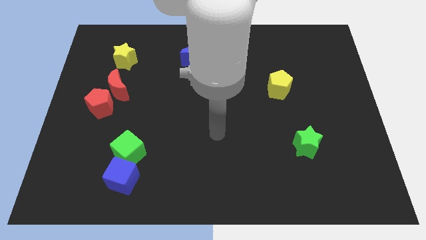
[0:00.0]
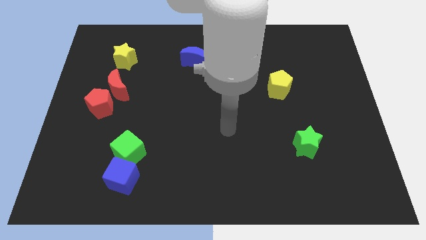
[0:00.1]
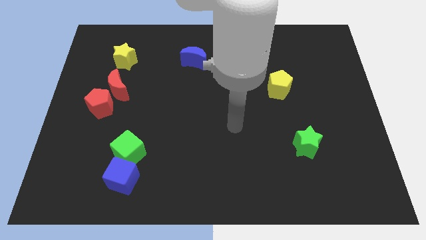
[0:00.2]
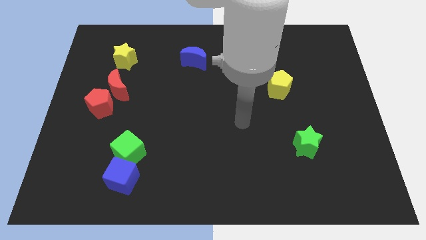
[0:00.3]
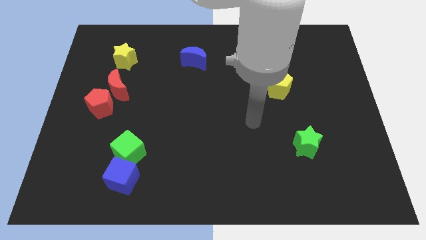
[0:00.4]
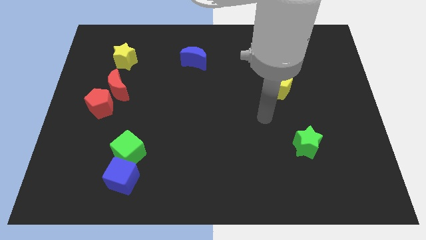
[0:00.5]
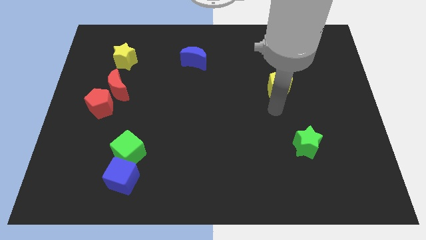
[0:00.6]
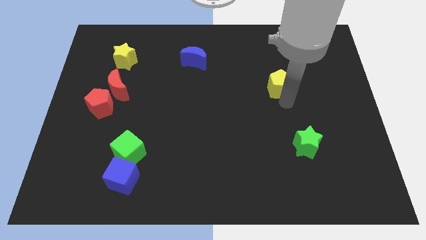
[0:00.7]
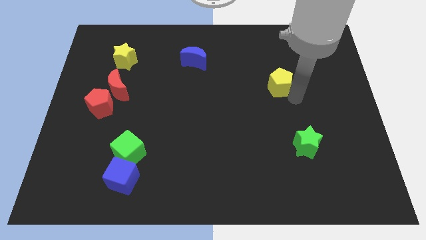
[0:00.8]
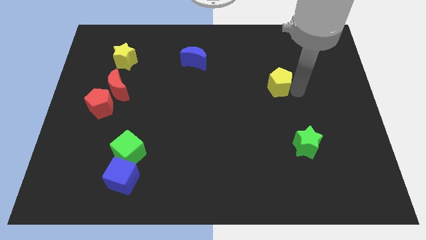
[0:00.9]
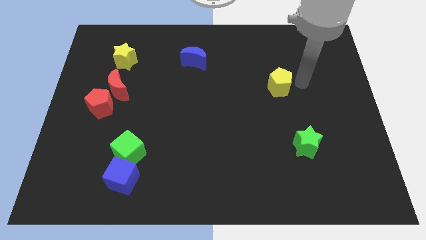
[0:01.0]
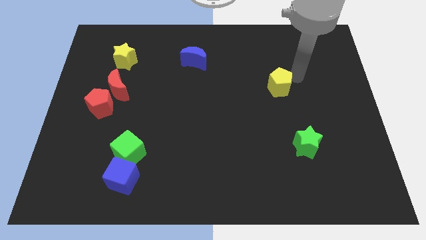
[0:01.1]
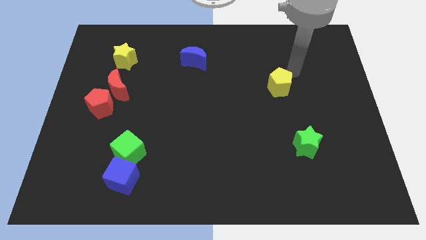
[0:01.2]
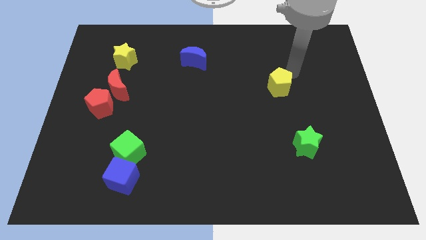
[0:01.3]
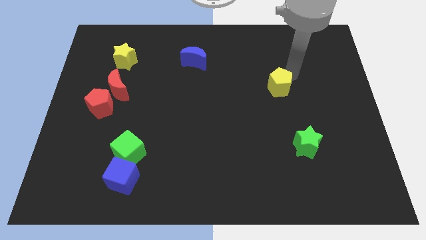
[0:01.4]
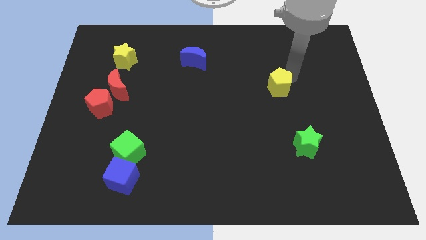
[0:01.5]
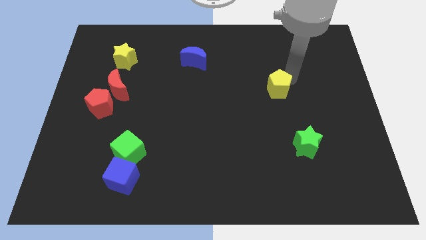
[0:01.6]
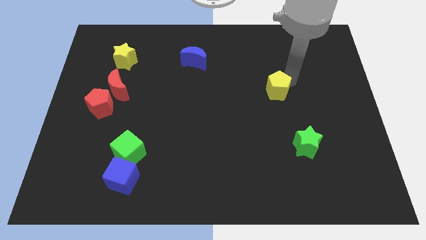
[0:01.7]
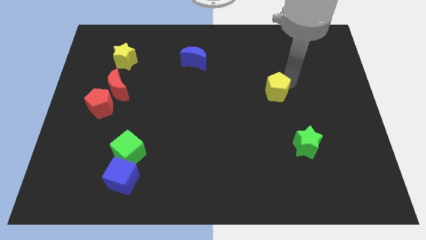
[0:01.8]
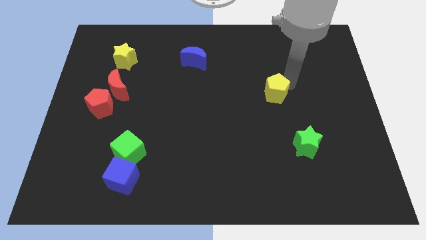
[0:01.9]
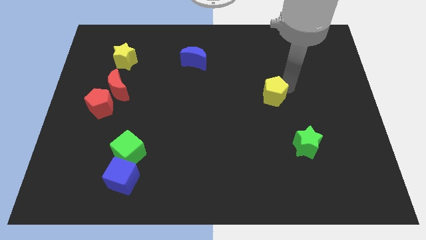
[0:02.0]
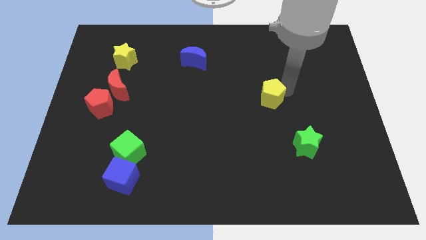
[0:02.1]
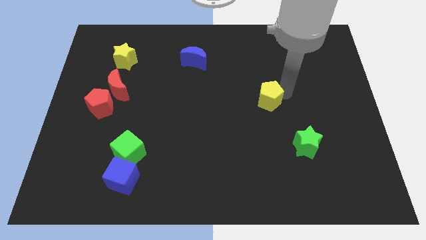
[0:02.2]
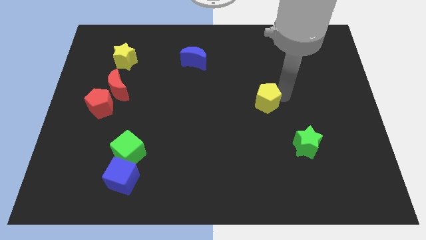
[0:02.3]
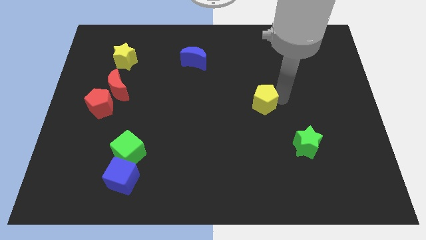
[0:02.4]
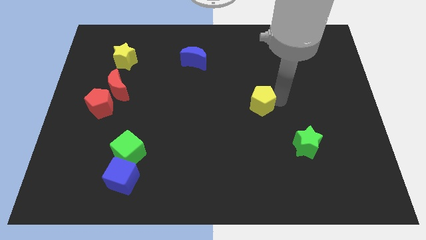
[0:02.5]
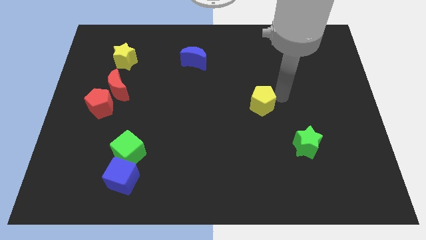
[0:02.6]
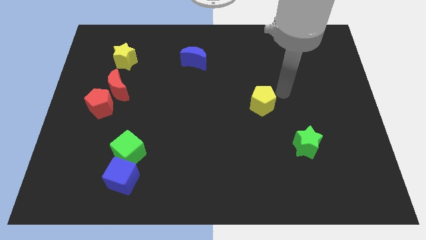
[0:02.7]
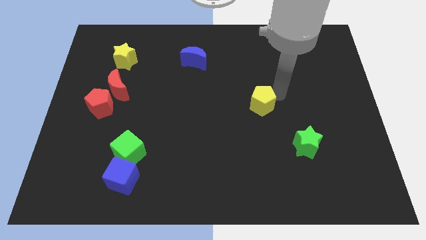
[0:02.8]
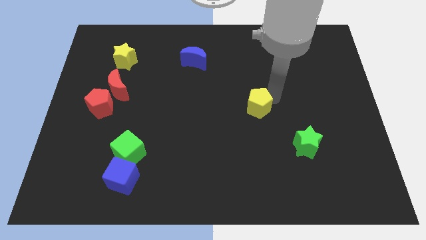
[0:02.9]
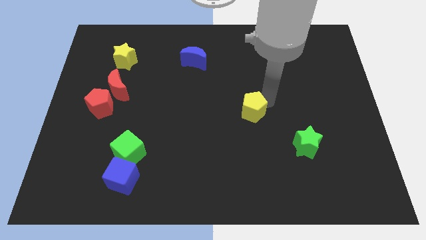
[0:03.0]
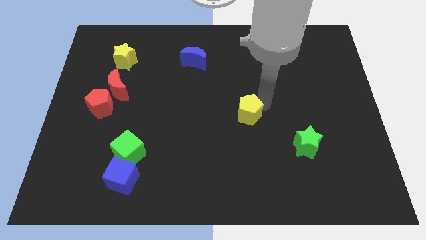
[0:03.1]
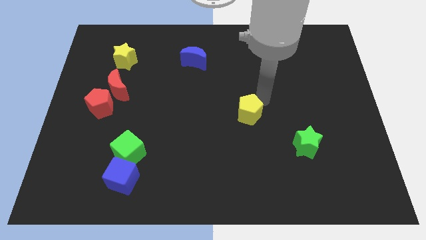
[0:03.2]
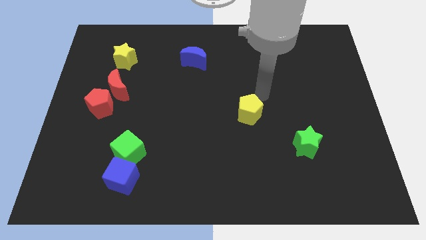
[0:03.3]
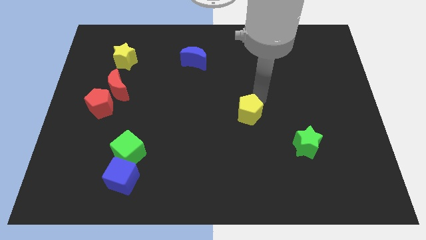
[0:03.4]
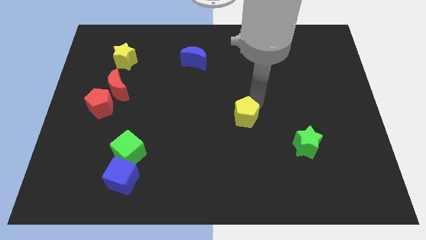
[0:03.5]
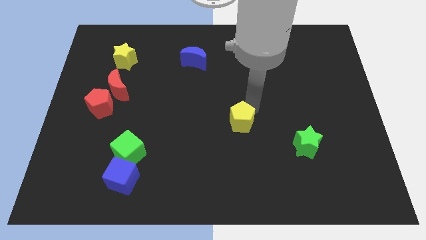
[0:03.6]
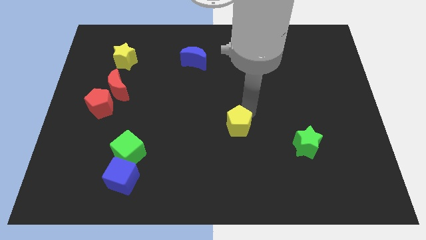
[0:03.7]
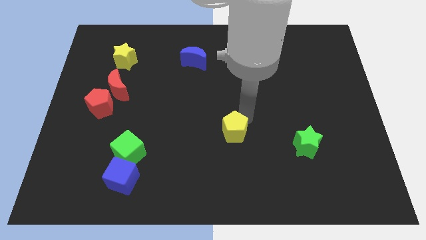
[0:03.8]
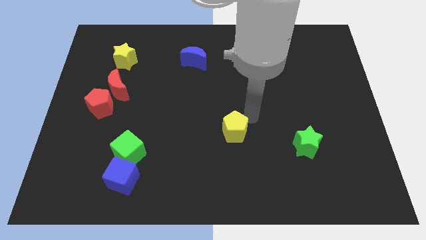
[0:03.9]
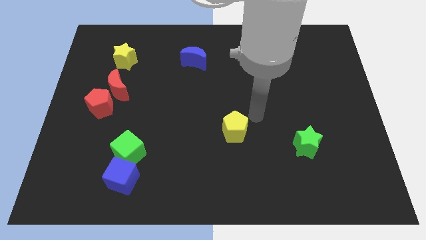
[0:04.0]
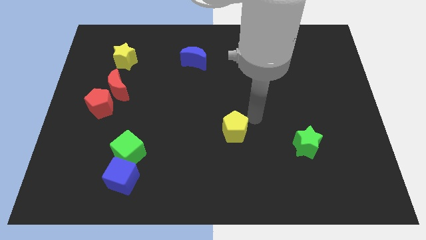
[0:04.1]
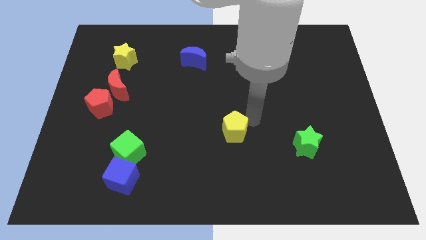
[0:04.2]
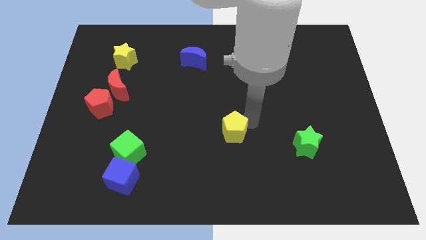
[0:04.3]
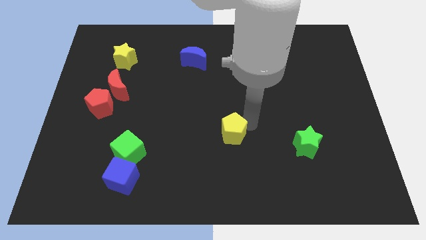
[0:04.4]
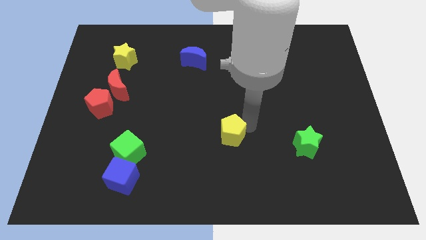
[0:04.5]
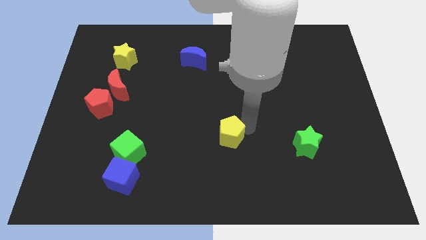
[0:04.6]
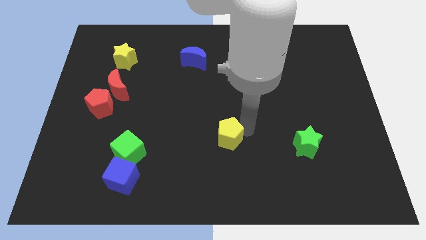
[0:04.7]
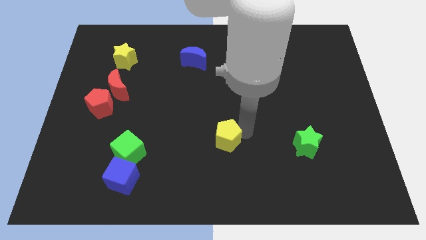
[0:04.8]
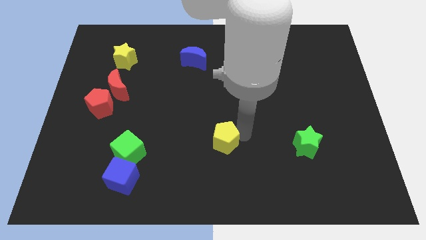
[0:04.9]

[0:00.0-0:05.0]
slide the yellow pentagon downwards and to the left

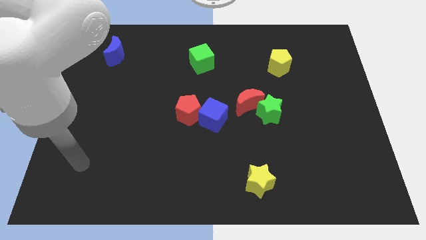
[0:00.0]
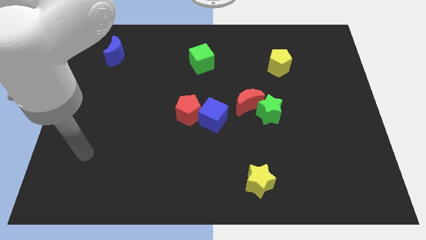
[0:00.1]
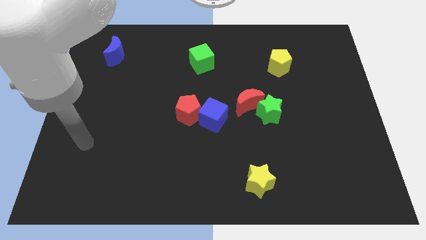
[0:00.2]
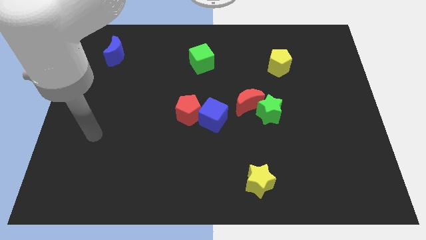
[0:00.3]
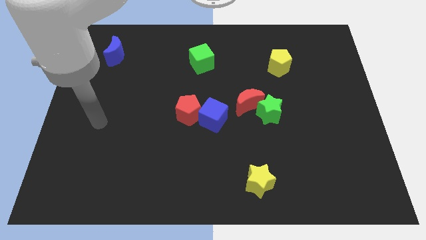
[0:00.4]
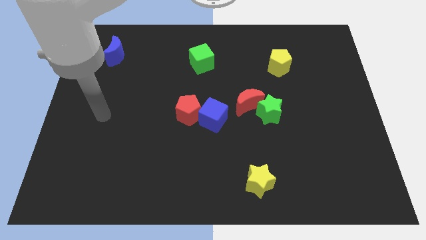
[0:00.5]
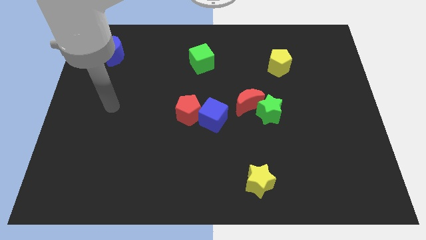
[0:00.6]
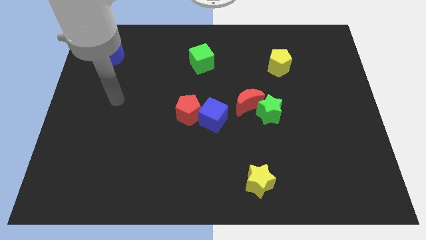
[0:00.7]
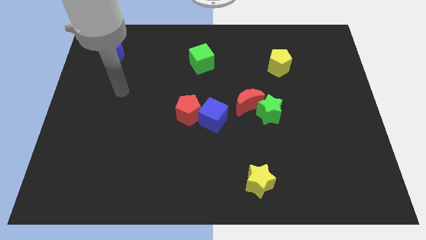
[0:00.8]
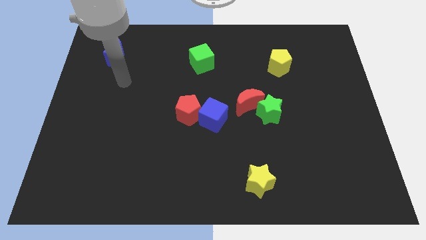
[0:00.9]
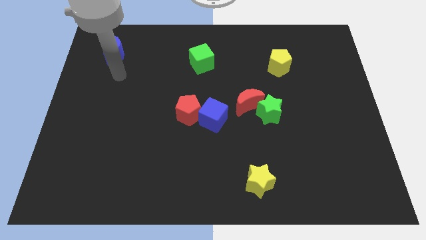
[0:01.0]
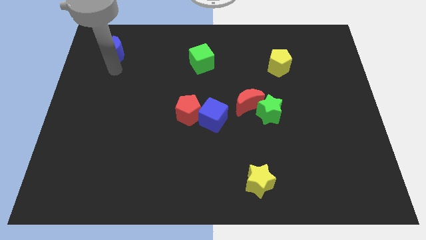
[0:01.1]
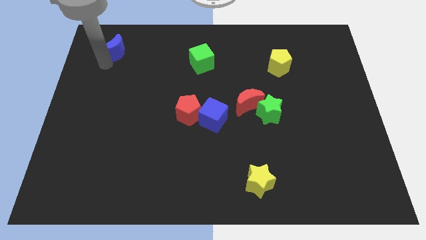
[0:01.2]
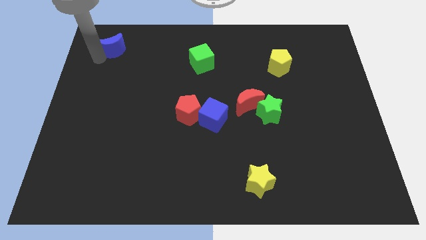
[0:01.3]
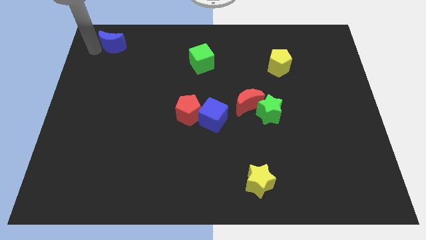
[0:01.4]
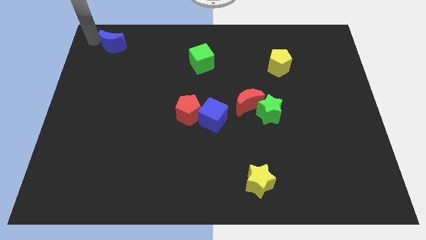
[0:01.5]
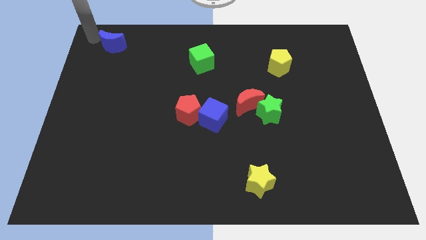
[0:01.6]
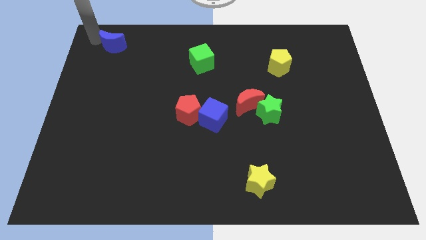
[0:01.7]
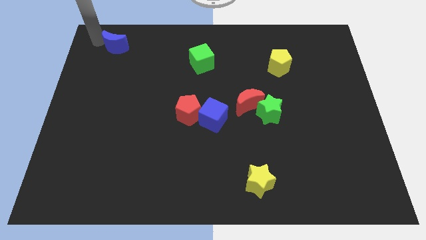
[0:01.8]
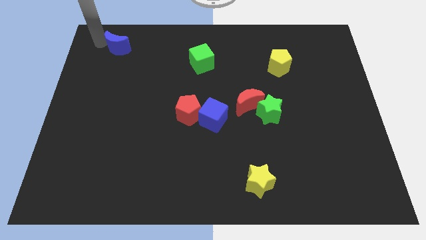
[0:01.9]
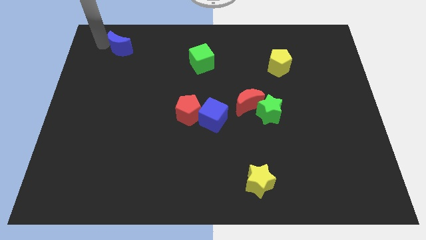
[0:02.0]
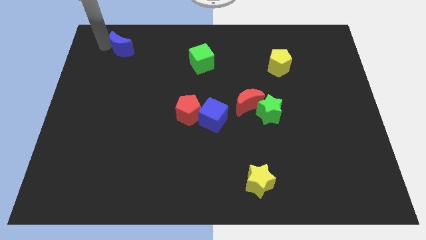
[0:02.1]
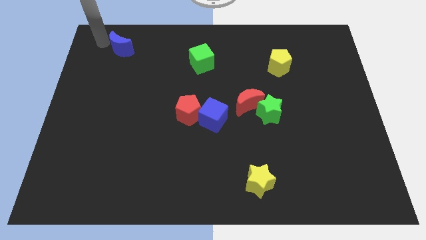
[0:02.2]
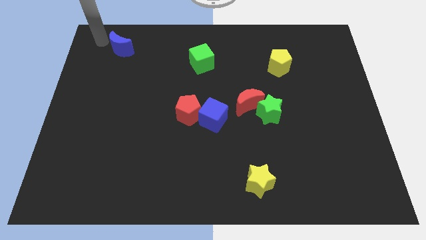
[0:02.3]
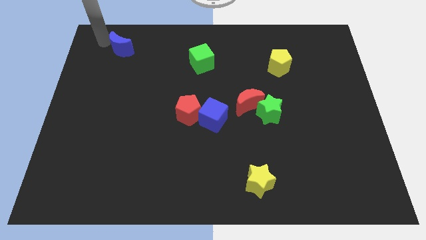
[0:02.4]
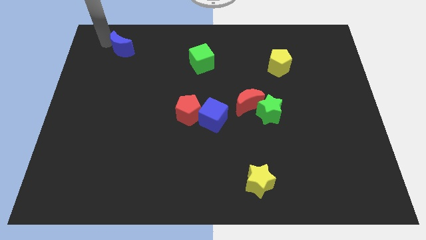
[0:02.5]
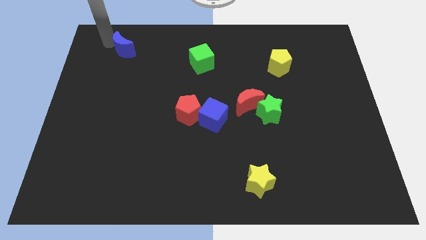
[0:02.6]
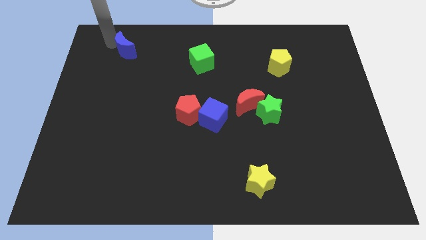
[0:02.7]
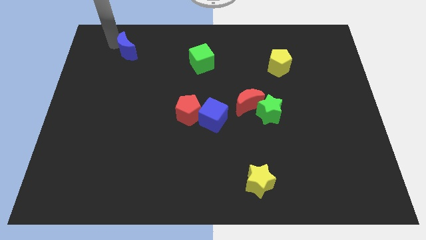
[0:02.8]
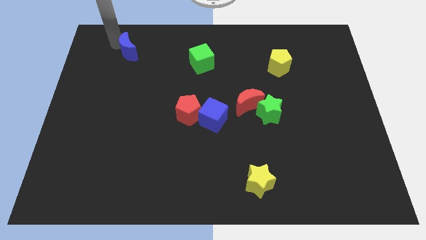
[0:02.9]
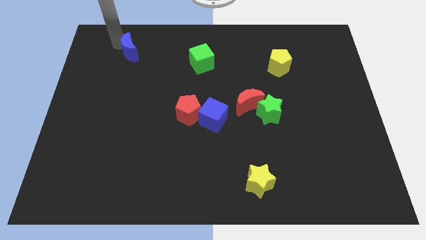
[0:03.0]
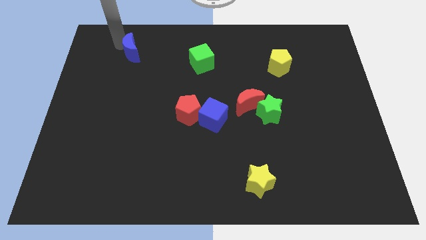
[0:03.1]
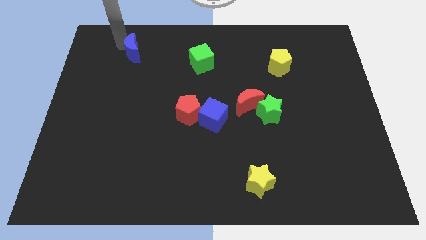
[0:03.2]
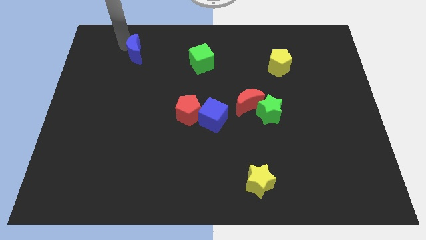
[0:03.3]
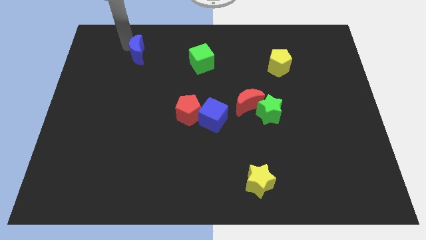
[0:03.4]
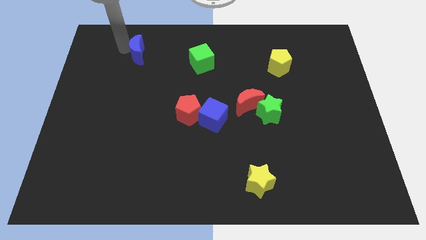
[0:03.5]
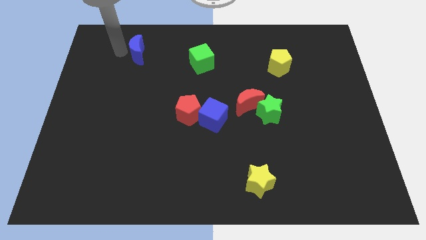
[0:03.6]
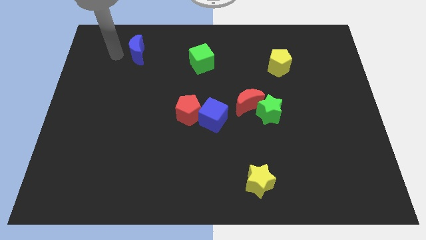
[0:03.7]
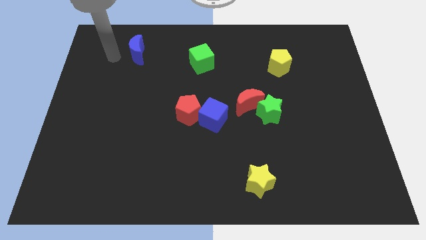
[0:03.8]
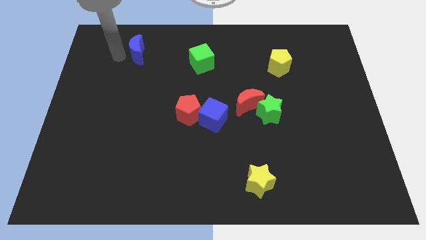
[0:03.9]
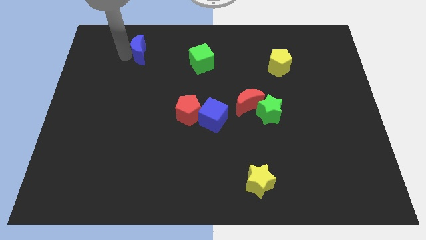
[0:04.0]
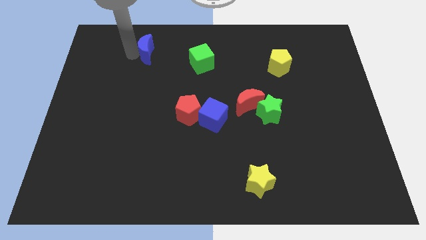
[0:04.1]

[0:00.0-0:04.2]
slide the blue moon right a little
